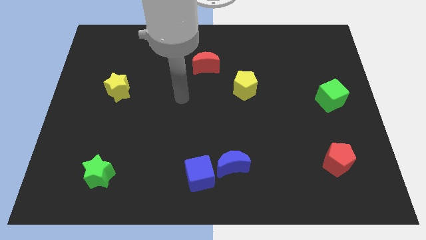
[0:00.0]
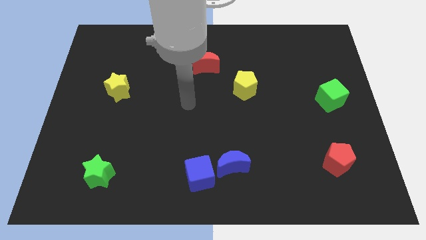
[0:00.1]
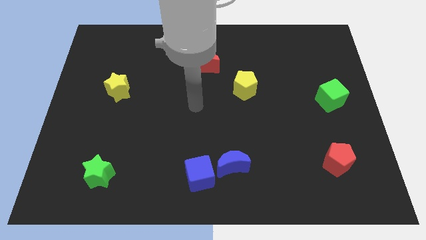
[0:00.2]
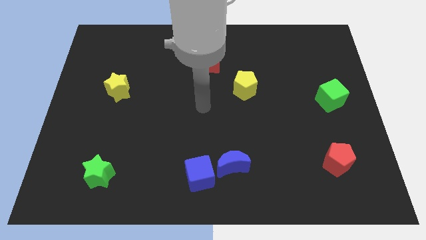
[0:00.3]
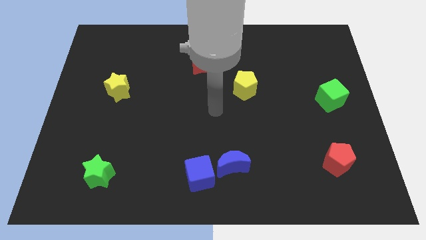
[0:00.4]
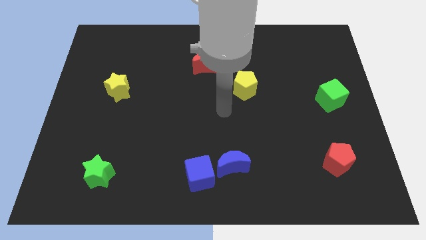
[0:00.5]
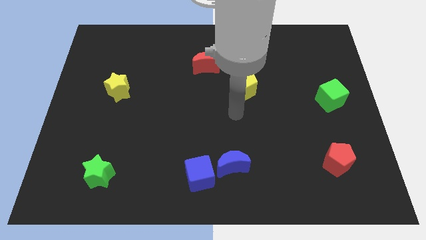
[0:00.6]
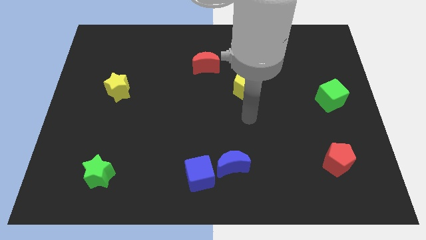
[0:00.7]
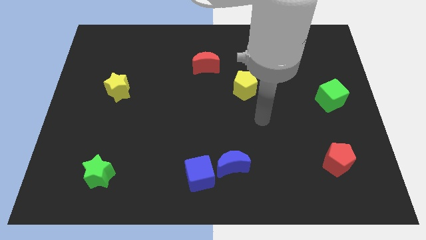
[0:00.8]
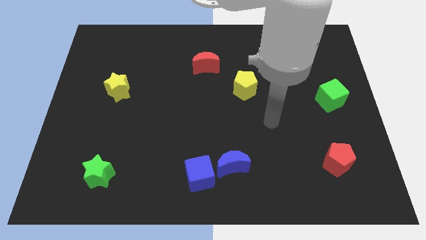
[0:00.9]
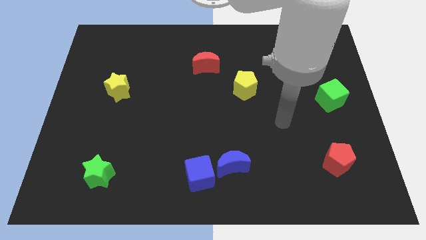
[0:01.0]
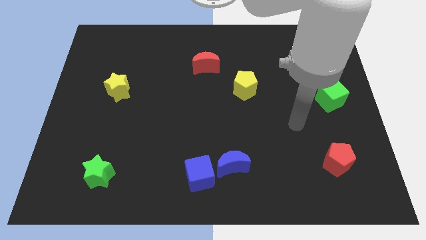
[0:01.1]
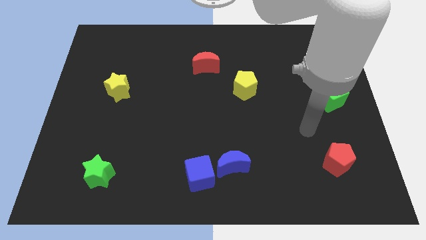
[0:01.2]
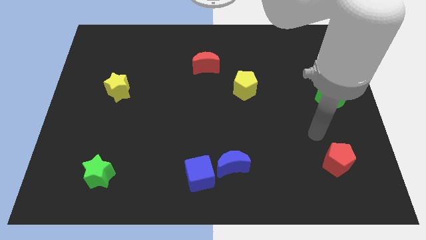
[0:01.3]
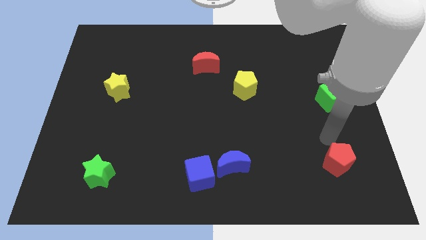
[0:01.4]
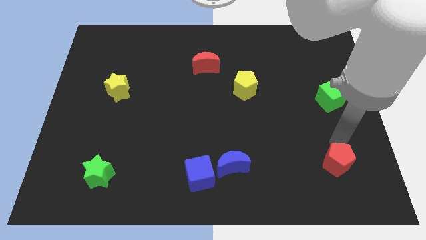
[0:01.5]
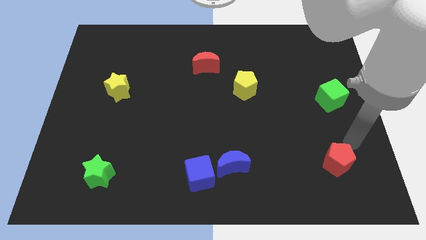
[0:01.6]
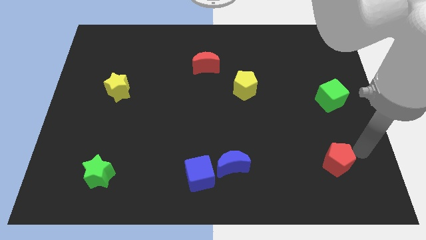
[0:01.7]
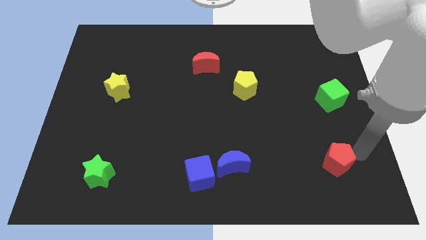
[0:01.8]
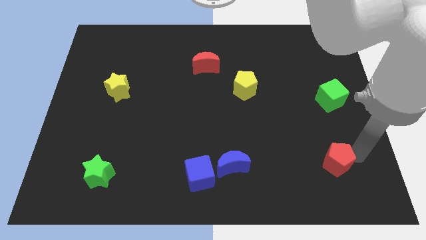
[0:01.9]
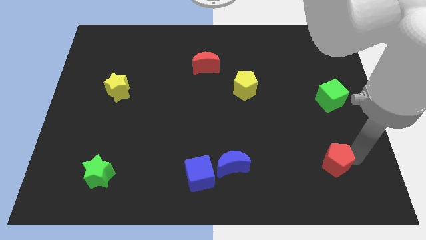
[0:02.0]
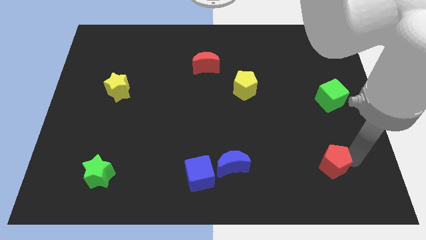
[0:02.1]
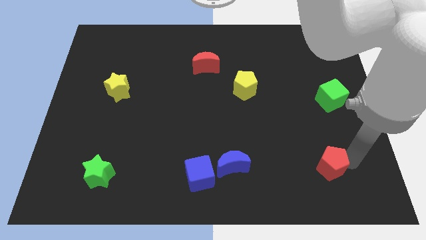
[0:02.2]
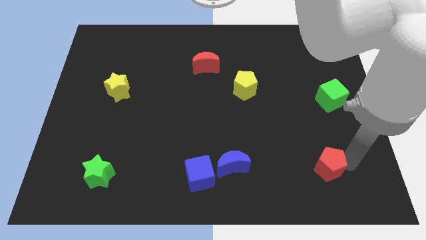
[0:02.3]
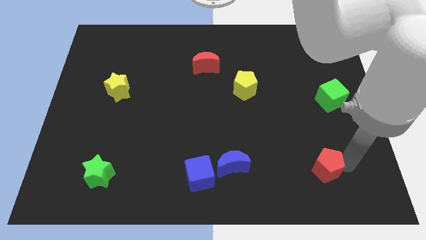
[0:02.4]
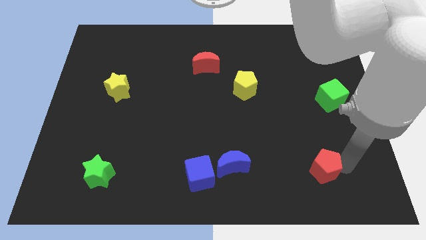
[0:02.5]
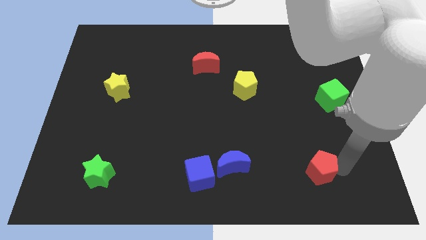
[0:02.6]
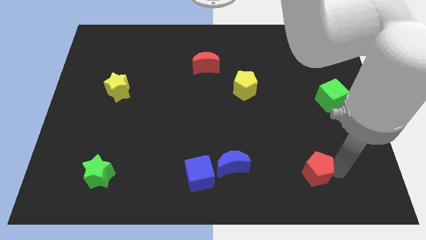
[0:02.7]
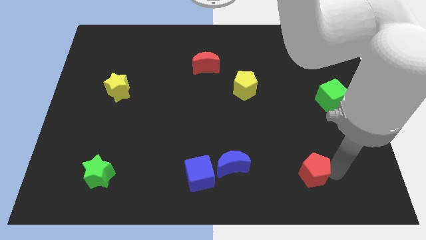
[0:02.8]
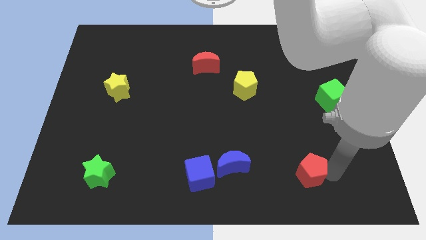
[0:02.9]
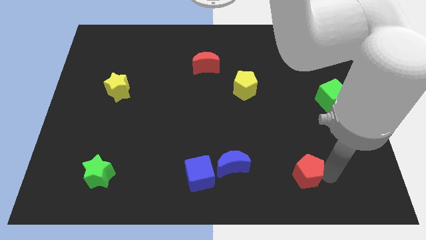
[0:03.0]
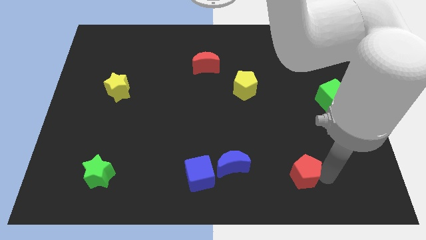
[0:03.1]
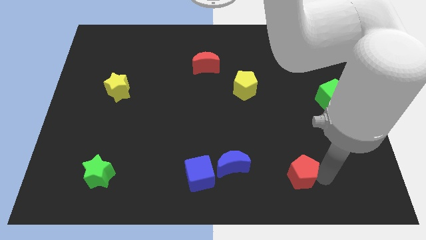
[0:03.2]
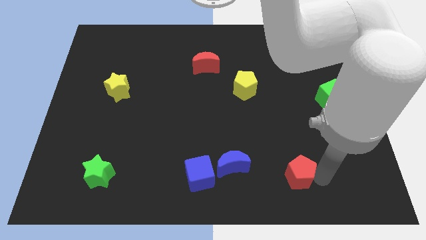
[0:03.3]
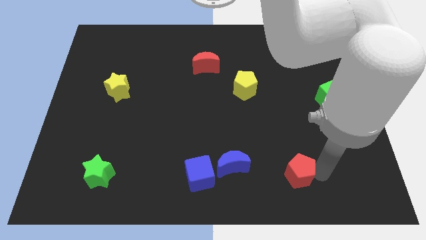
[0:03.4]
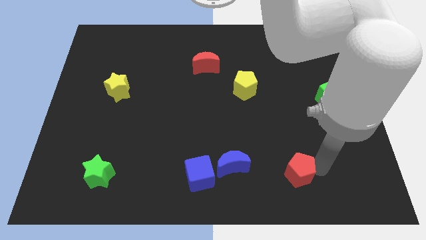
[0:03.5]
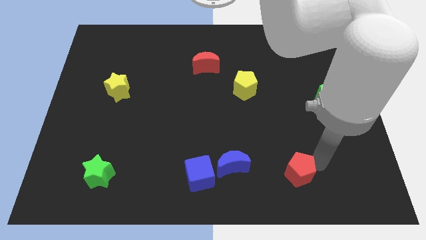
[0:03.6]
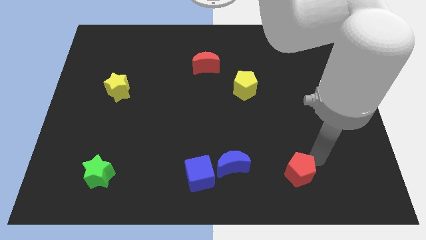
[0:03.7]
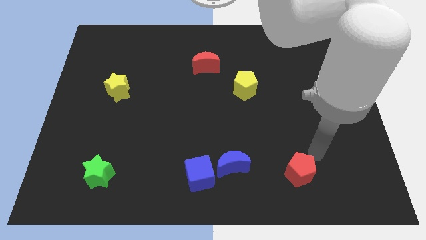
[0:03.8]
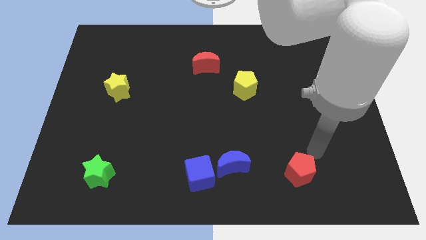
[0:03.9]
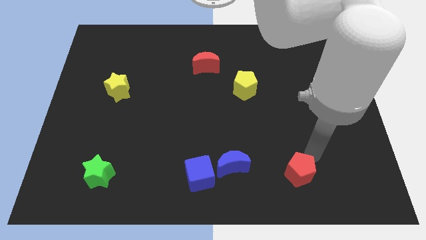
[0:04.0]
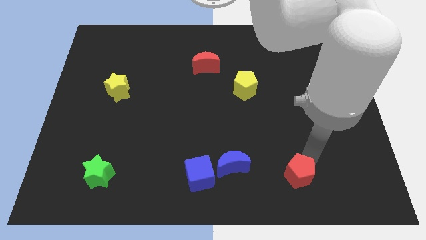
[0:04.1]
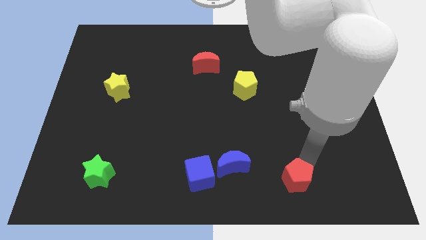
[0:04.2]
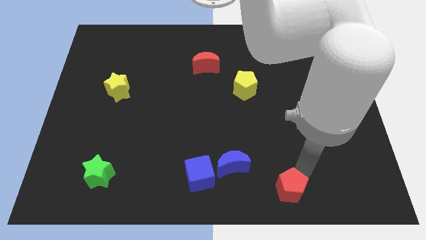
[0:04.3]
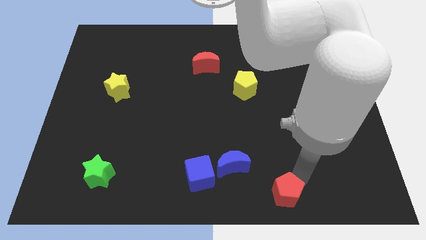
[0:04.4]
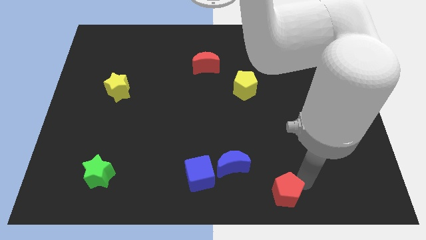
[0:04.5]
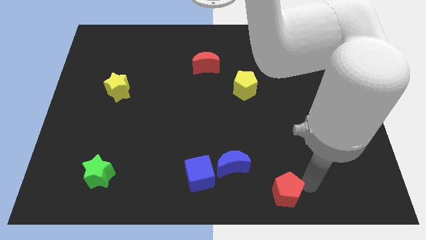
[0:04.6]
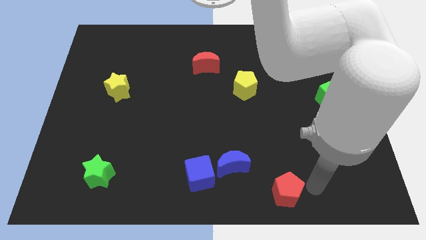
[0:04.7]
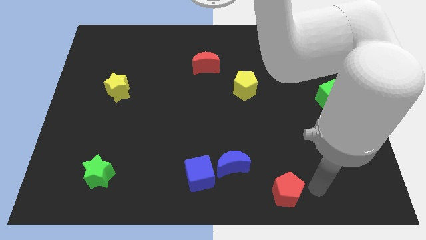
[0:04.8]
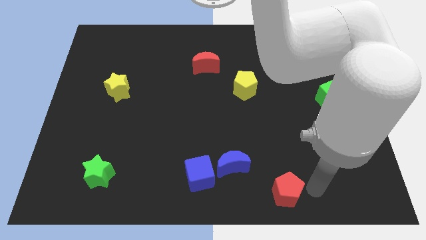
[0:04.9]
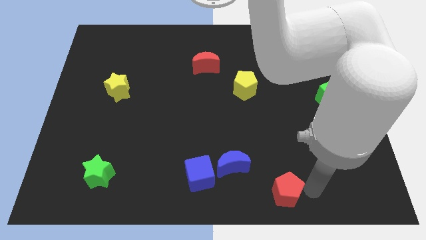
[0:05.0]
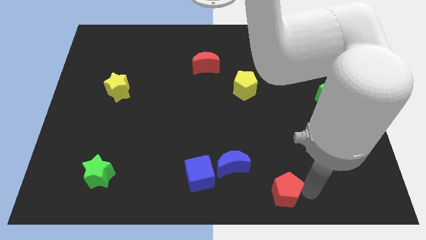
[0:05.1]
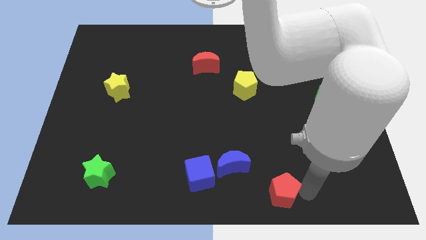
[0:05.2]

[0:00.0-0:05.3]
put the red pentagon to the bottom

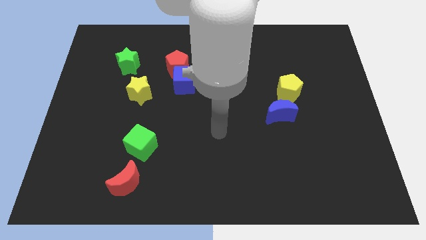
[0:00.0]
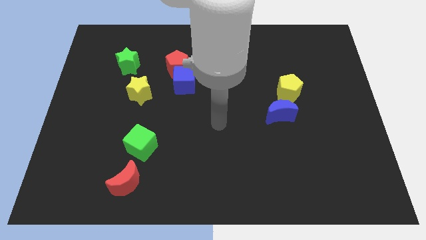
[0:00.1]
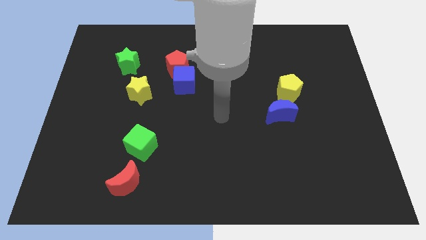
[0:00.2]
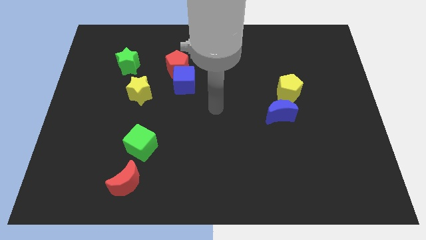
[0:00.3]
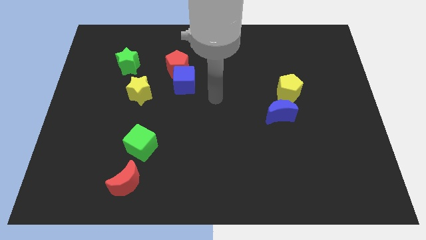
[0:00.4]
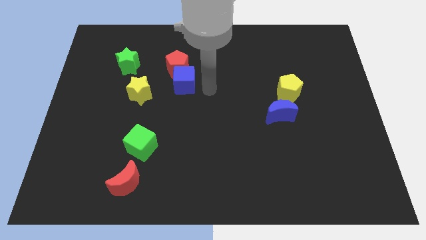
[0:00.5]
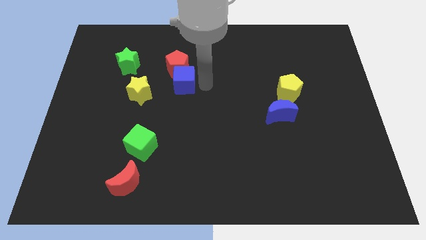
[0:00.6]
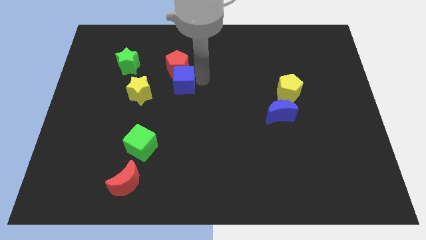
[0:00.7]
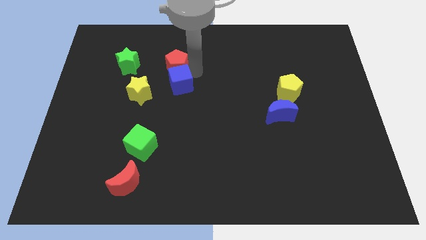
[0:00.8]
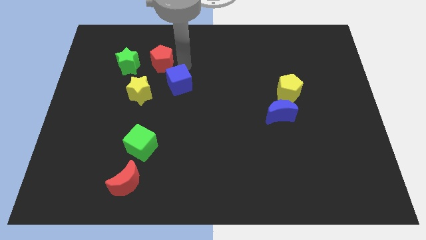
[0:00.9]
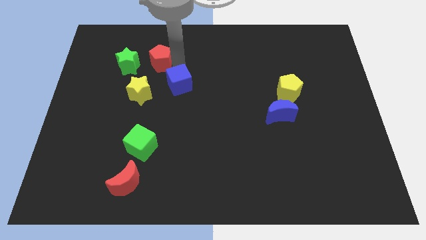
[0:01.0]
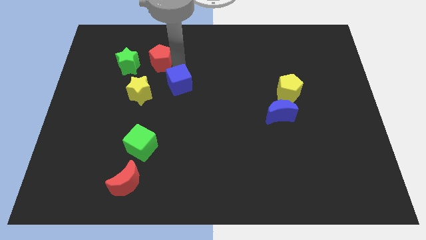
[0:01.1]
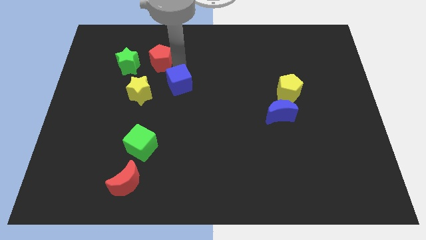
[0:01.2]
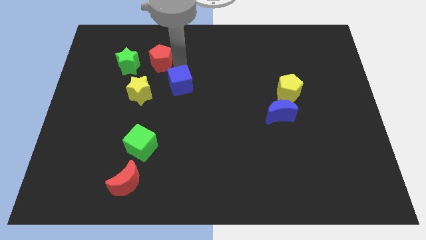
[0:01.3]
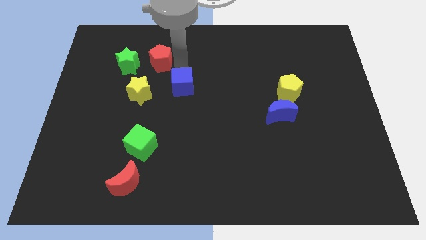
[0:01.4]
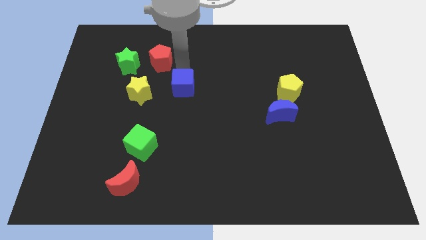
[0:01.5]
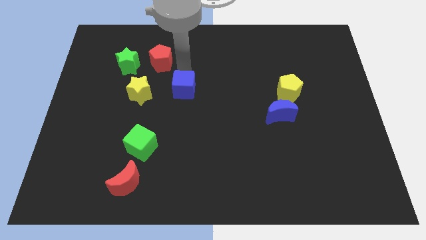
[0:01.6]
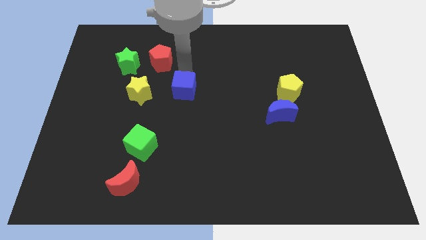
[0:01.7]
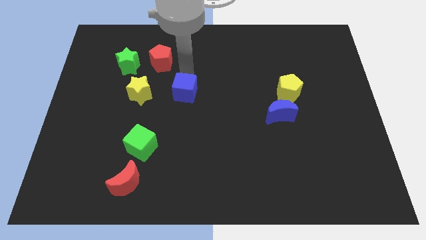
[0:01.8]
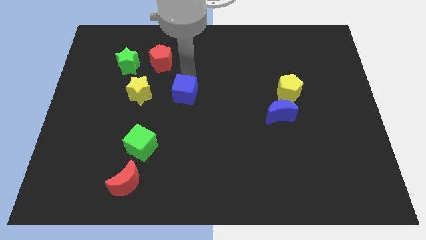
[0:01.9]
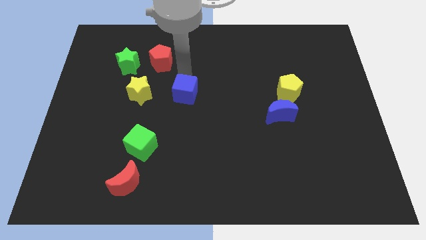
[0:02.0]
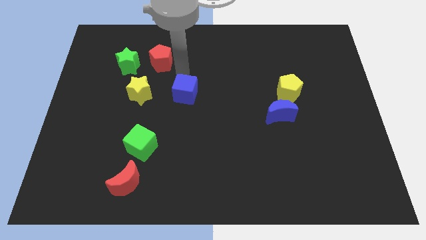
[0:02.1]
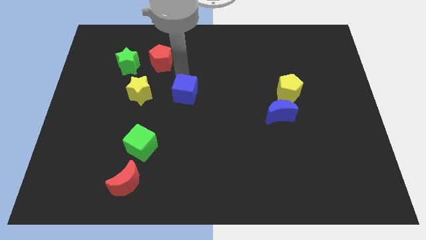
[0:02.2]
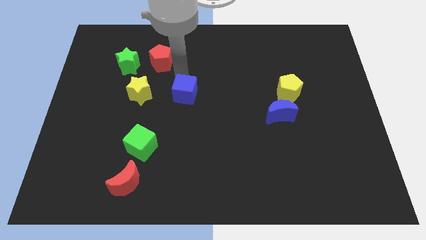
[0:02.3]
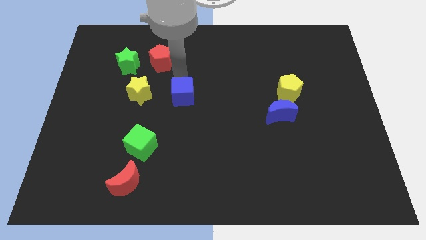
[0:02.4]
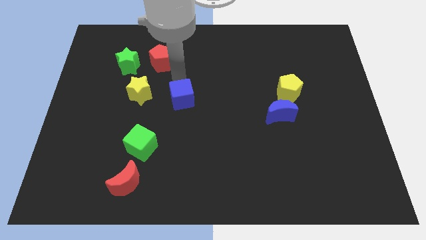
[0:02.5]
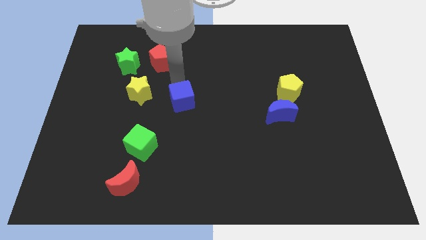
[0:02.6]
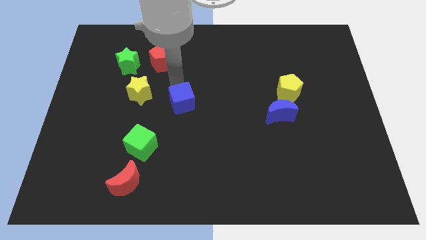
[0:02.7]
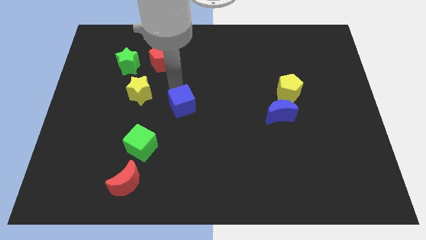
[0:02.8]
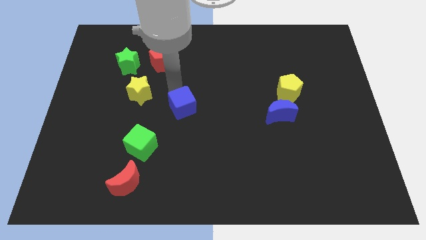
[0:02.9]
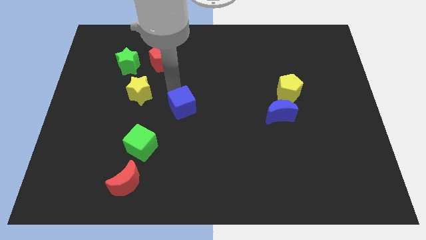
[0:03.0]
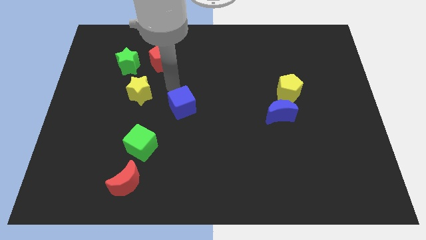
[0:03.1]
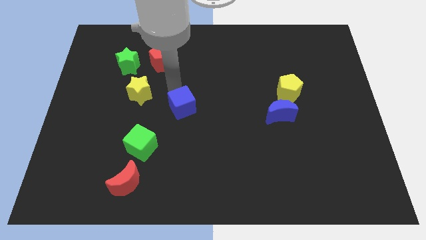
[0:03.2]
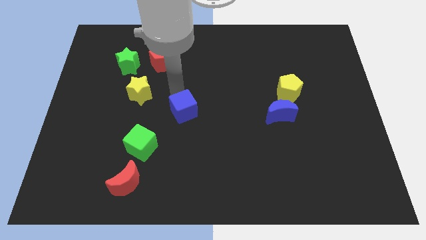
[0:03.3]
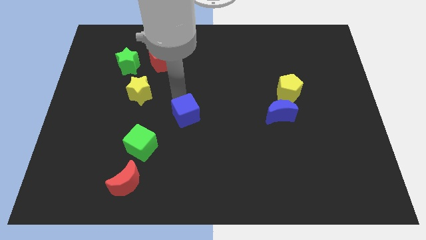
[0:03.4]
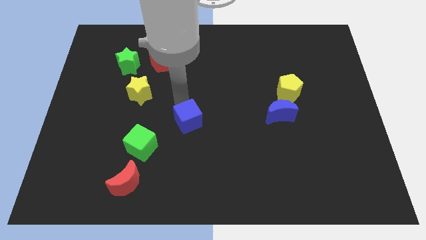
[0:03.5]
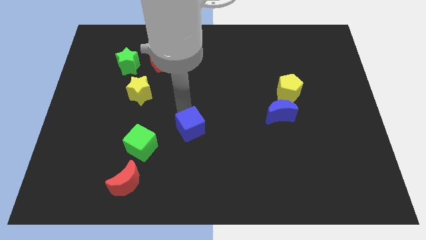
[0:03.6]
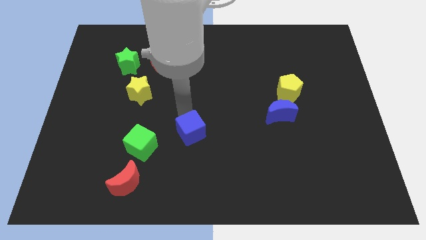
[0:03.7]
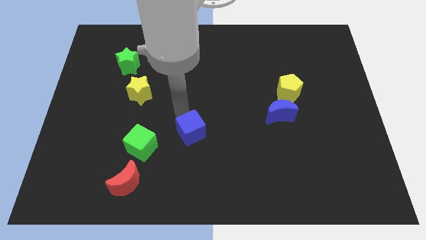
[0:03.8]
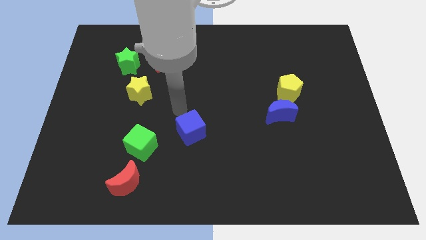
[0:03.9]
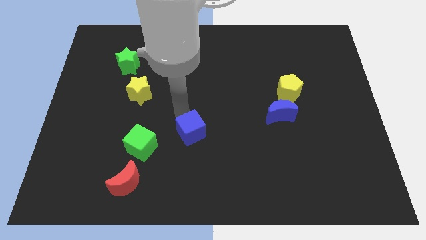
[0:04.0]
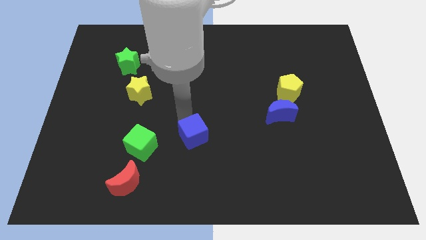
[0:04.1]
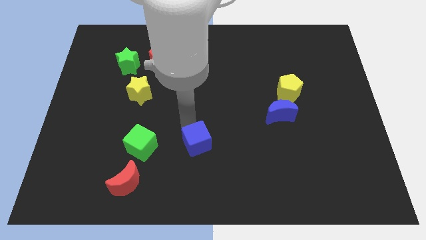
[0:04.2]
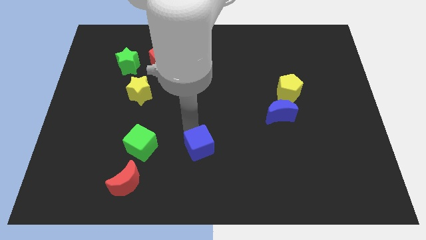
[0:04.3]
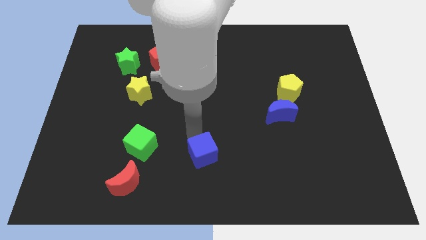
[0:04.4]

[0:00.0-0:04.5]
put the blue cube to the bottom side
